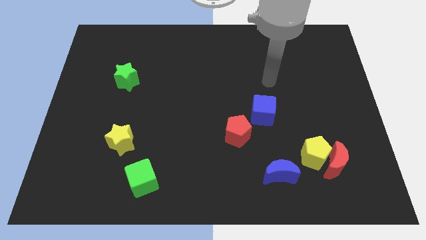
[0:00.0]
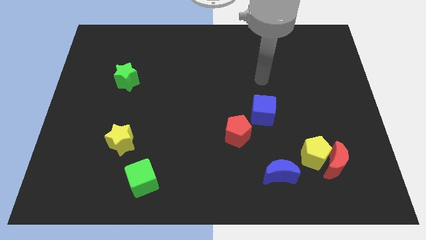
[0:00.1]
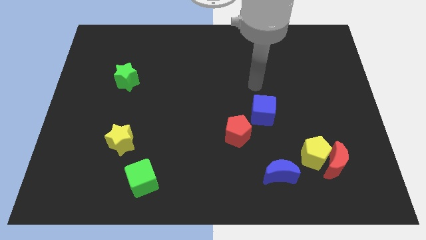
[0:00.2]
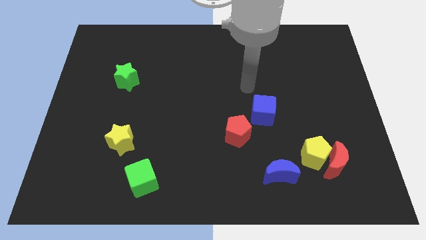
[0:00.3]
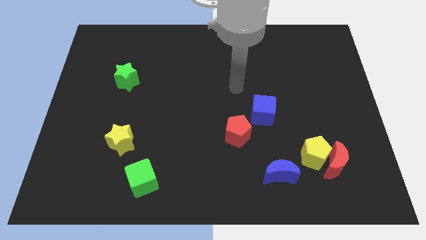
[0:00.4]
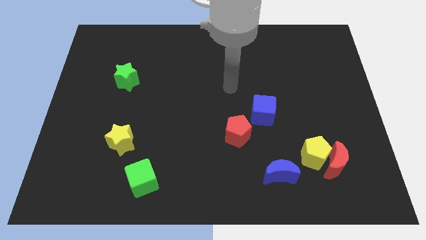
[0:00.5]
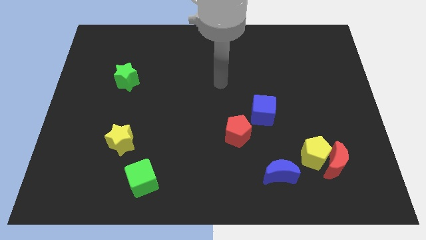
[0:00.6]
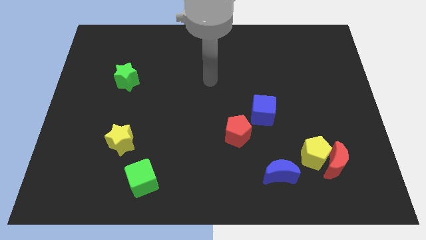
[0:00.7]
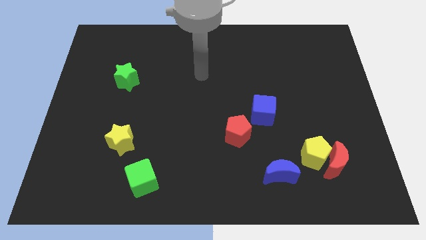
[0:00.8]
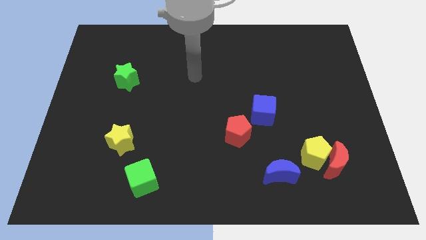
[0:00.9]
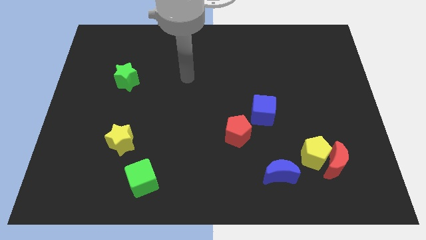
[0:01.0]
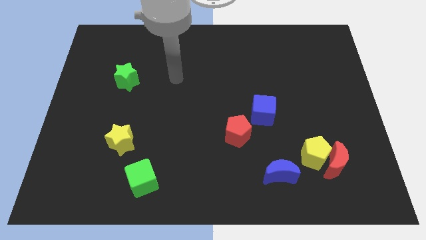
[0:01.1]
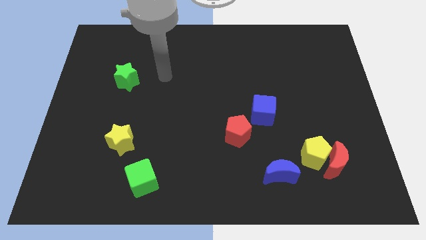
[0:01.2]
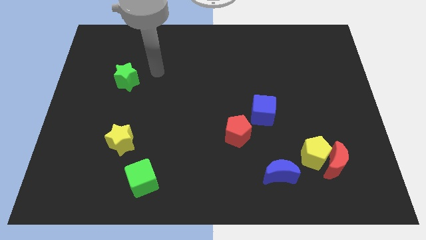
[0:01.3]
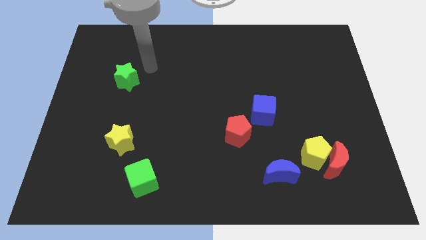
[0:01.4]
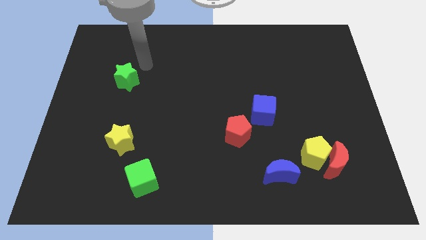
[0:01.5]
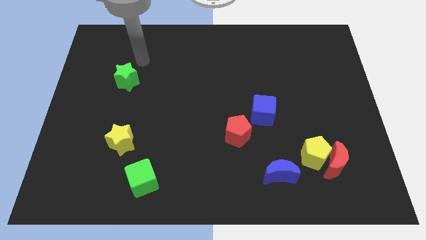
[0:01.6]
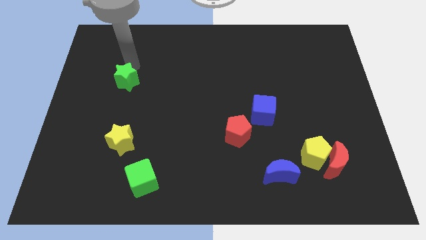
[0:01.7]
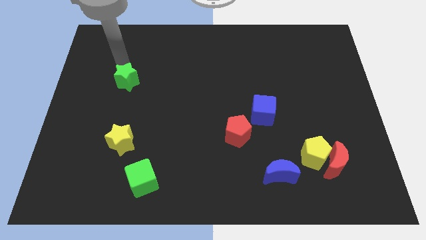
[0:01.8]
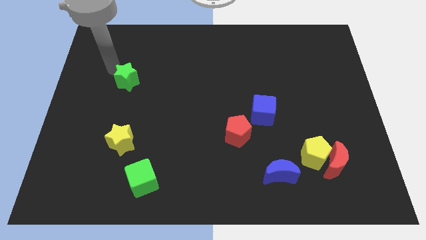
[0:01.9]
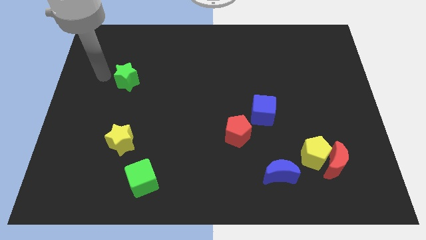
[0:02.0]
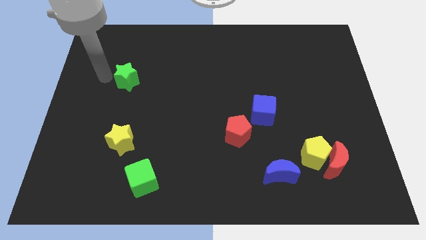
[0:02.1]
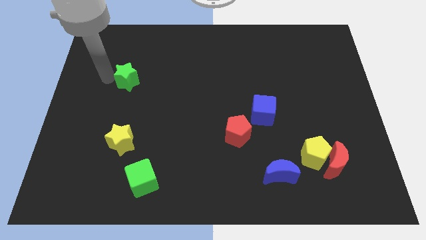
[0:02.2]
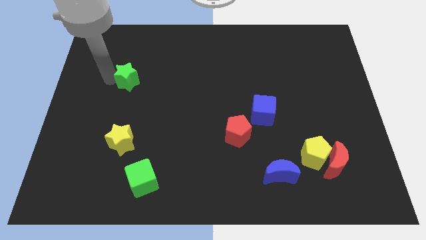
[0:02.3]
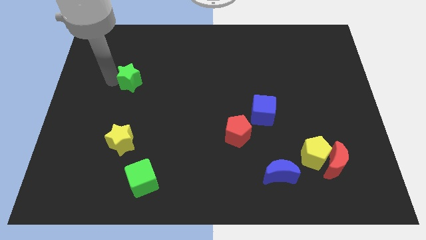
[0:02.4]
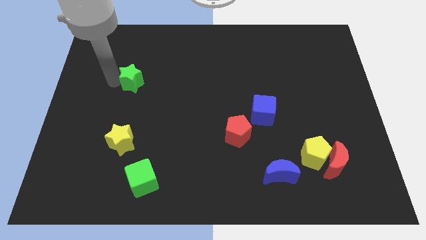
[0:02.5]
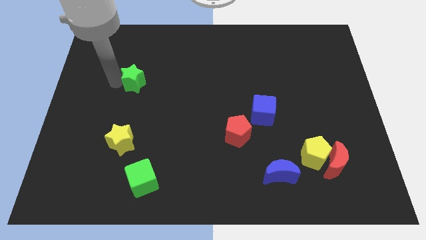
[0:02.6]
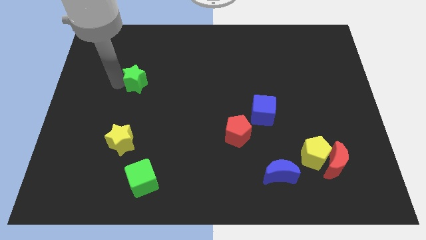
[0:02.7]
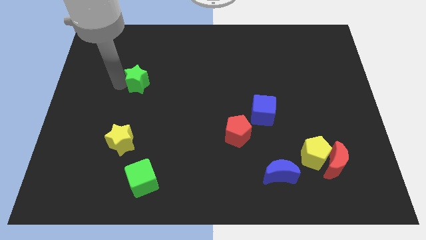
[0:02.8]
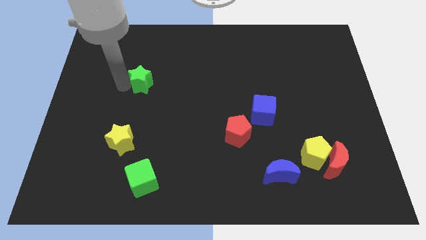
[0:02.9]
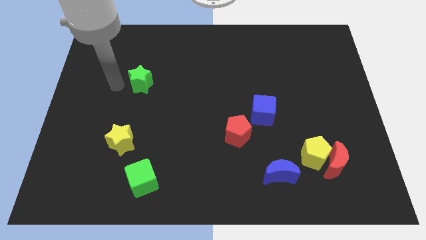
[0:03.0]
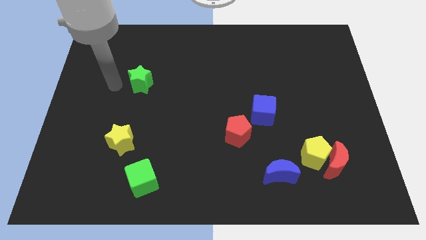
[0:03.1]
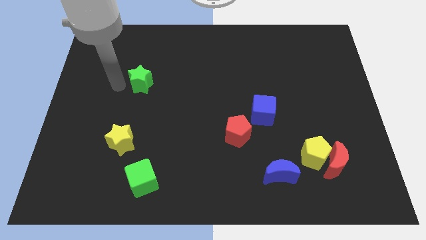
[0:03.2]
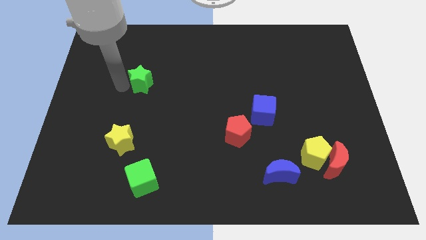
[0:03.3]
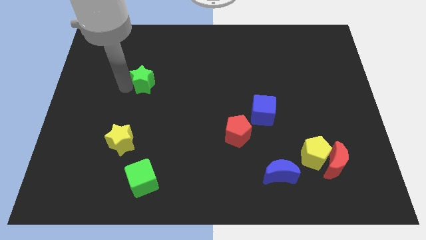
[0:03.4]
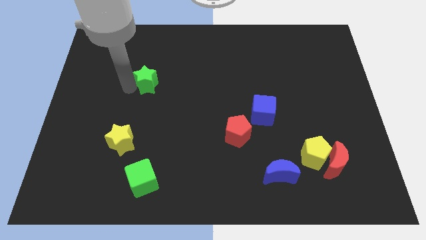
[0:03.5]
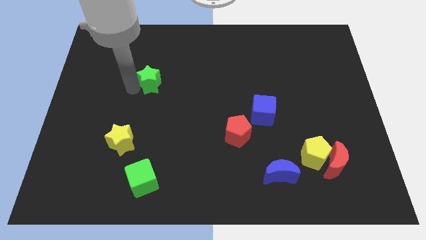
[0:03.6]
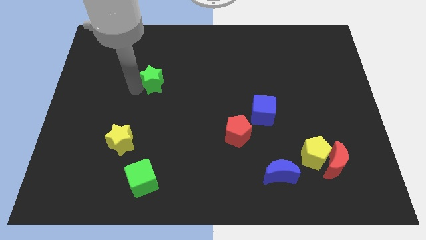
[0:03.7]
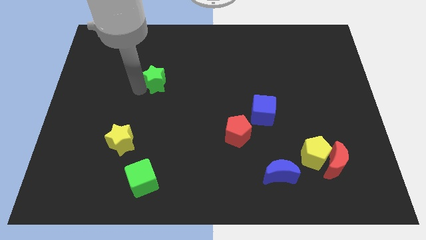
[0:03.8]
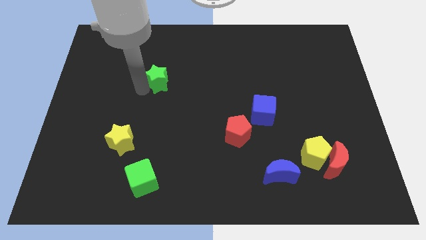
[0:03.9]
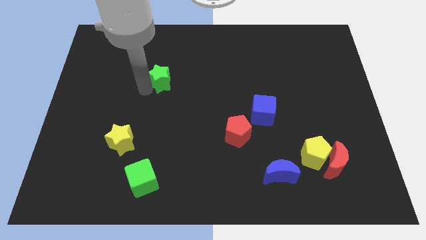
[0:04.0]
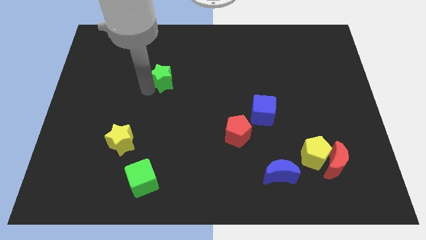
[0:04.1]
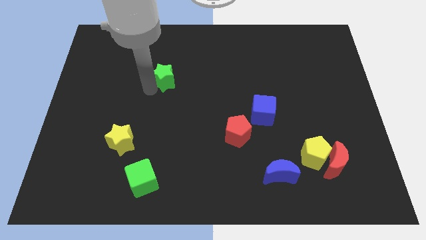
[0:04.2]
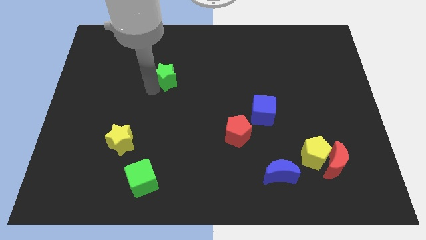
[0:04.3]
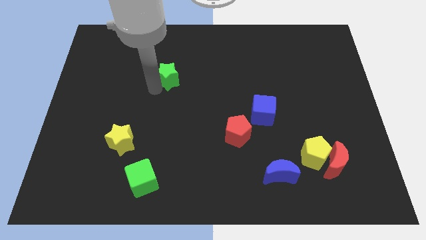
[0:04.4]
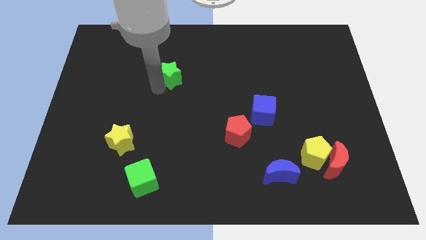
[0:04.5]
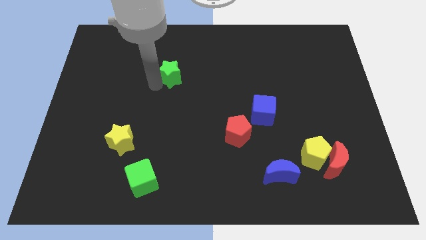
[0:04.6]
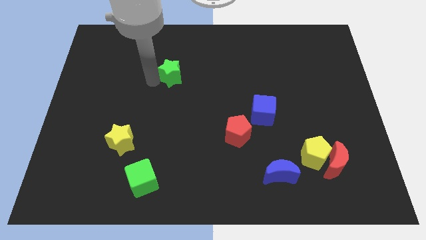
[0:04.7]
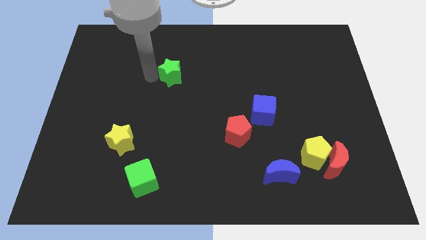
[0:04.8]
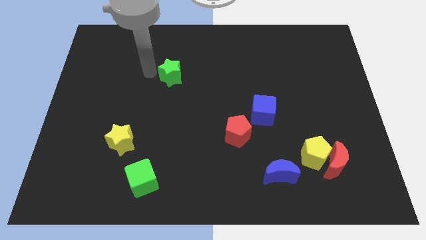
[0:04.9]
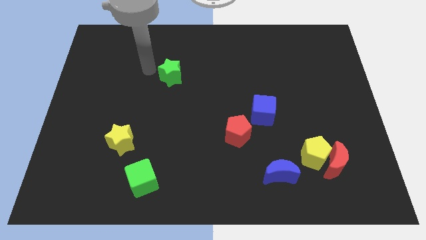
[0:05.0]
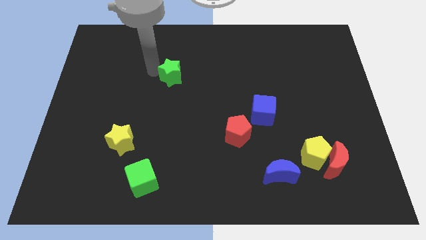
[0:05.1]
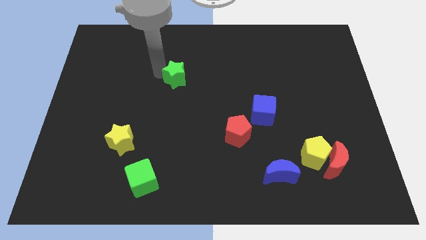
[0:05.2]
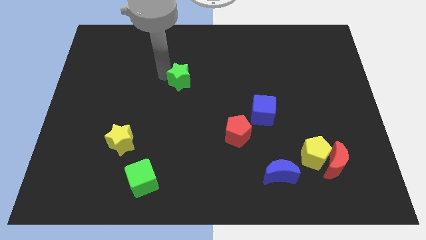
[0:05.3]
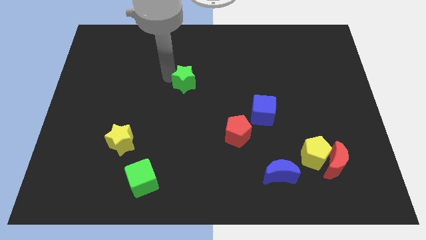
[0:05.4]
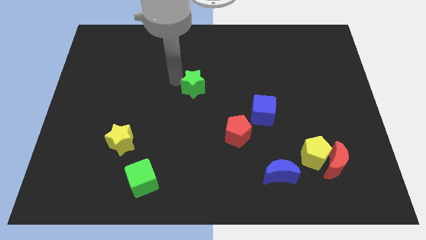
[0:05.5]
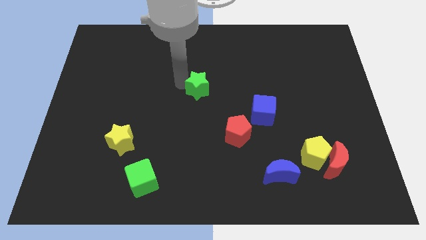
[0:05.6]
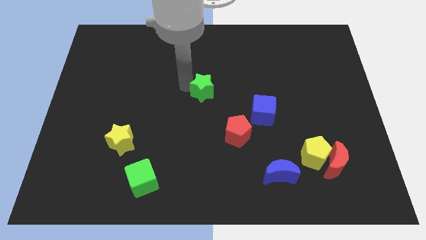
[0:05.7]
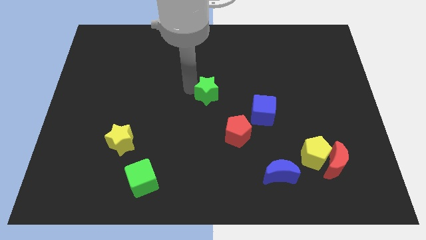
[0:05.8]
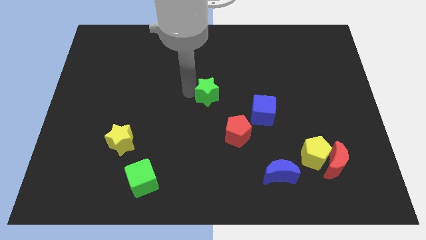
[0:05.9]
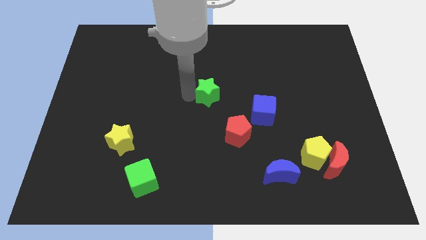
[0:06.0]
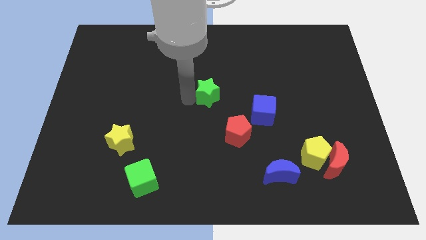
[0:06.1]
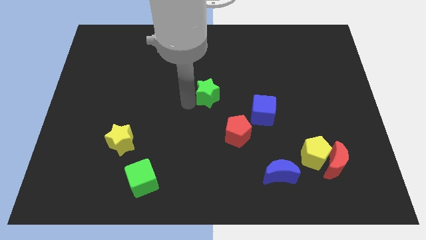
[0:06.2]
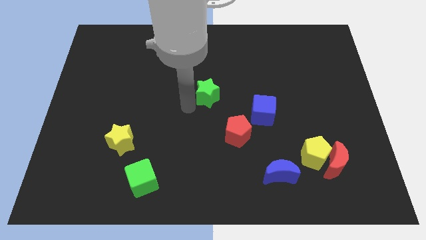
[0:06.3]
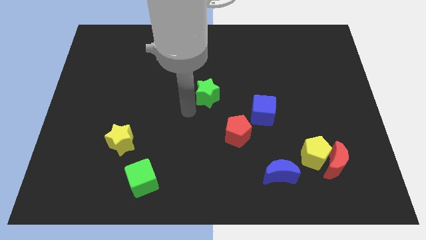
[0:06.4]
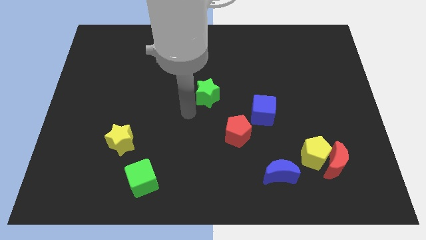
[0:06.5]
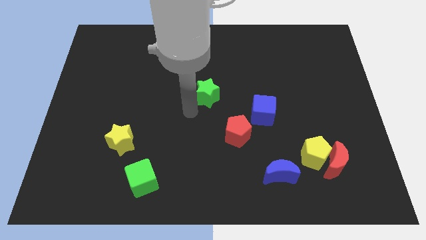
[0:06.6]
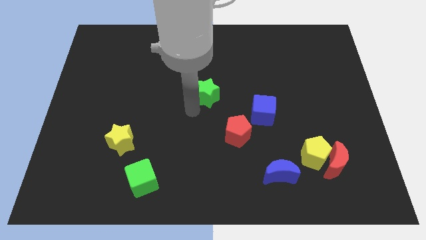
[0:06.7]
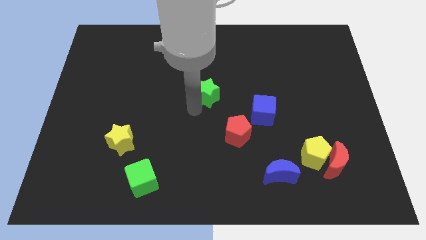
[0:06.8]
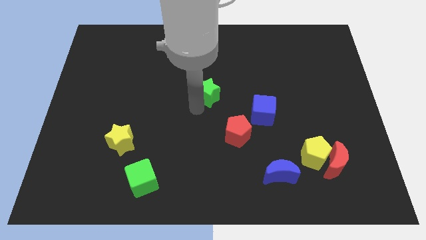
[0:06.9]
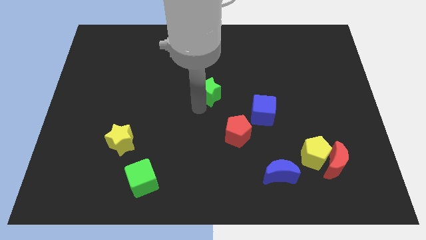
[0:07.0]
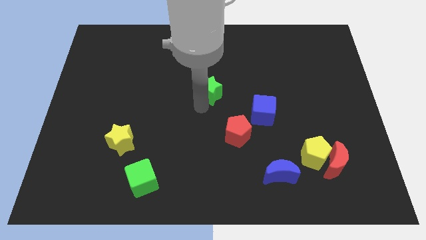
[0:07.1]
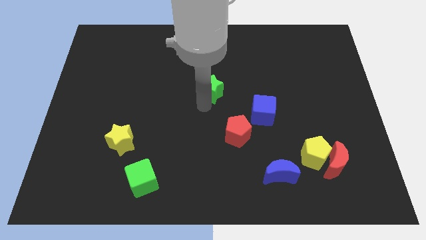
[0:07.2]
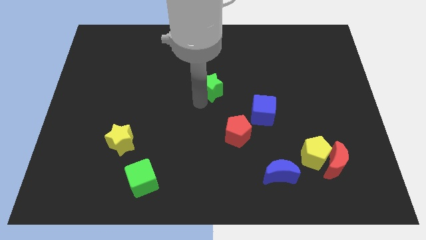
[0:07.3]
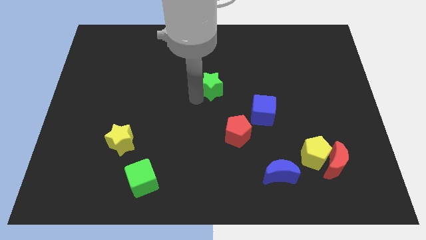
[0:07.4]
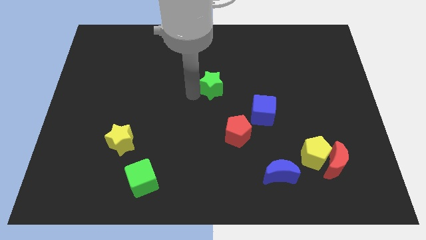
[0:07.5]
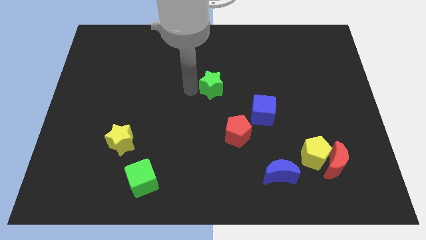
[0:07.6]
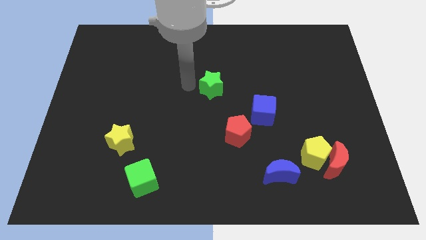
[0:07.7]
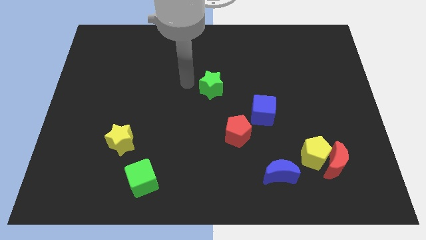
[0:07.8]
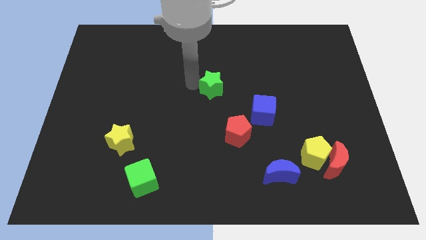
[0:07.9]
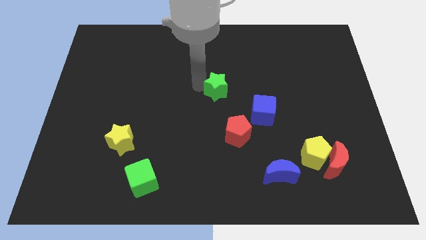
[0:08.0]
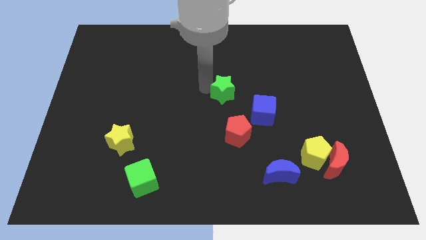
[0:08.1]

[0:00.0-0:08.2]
slide the green star to the top left side of the blue cube
